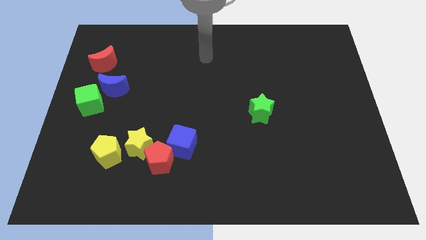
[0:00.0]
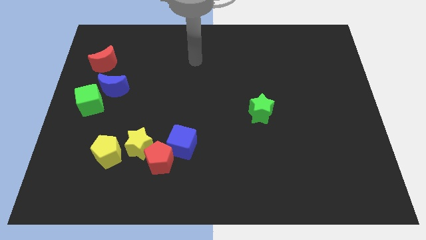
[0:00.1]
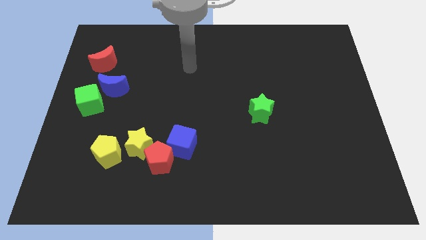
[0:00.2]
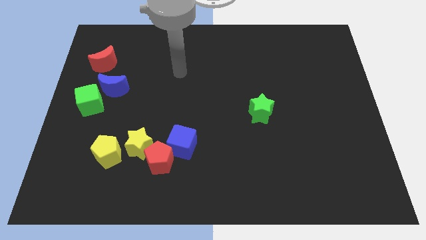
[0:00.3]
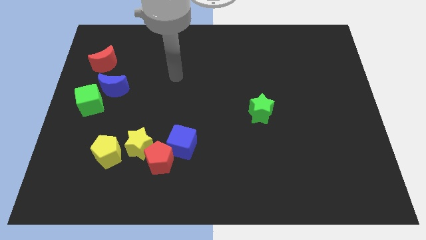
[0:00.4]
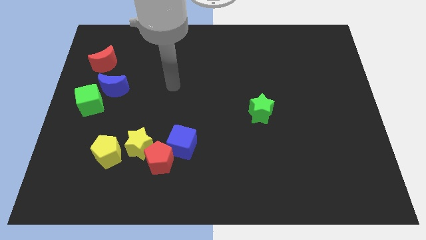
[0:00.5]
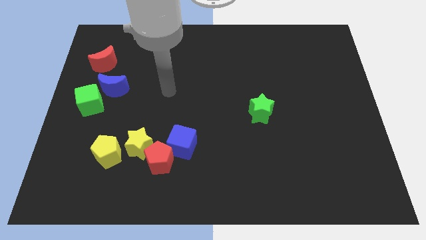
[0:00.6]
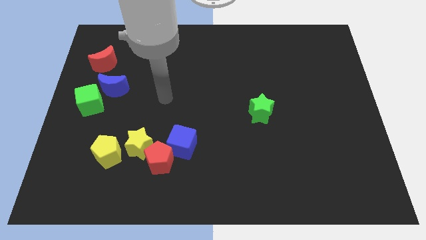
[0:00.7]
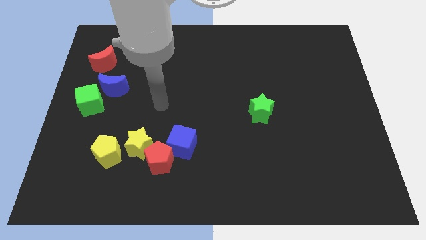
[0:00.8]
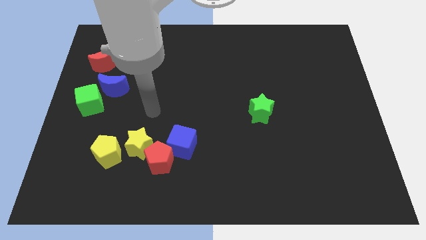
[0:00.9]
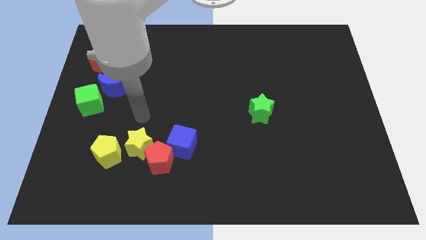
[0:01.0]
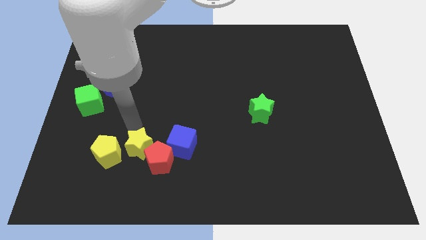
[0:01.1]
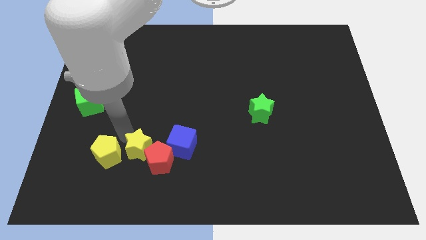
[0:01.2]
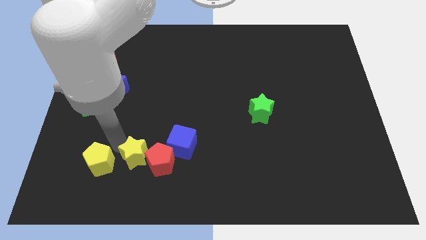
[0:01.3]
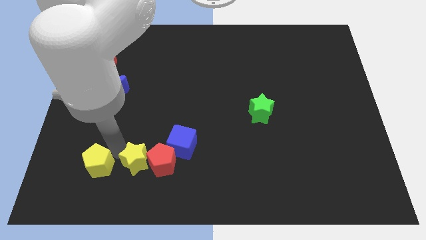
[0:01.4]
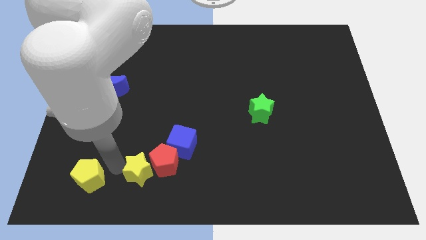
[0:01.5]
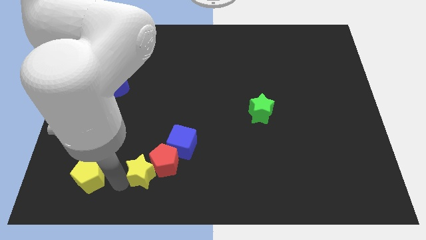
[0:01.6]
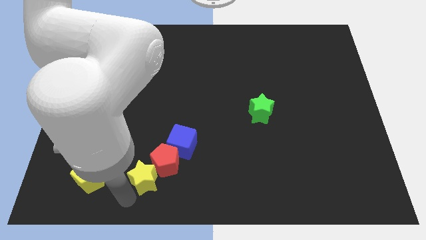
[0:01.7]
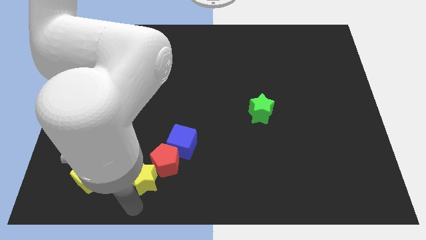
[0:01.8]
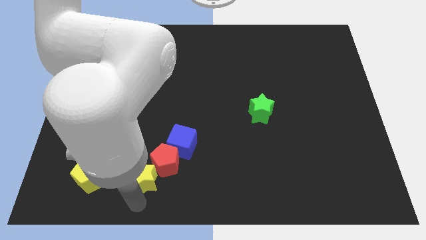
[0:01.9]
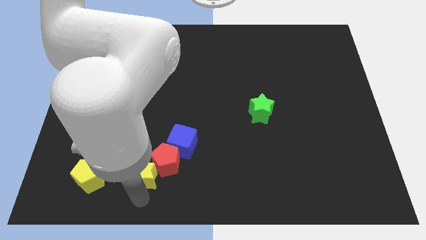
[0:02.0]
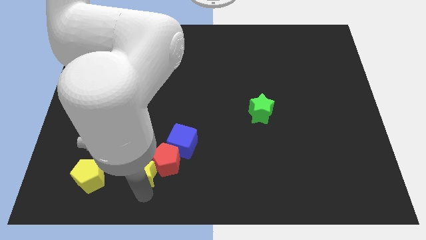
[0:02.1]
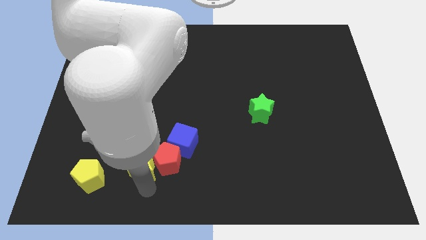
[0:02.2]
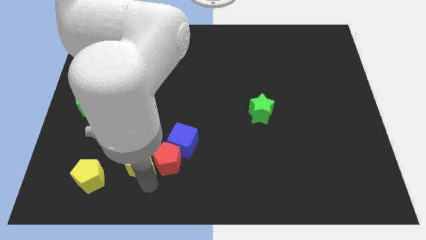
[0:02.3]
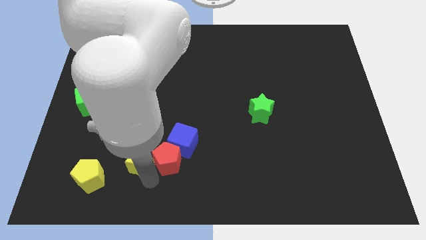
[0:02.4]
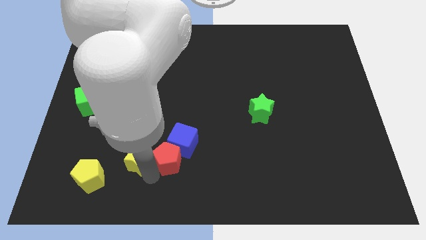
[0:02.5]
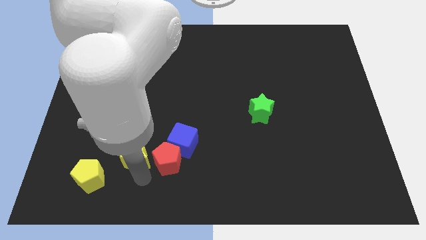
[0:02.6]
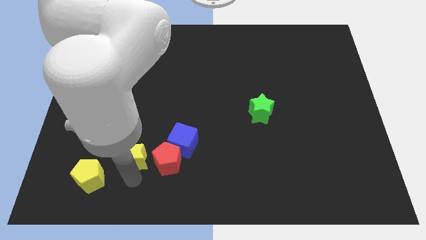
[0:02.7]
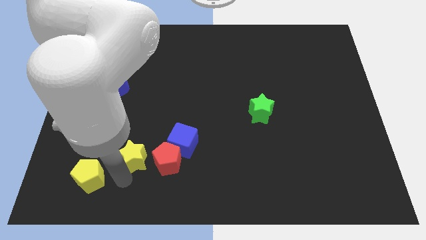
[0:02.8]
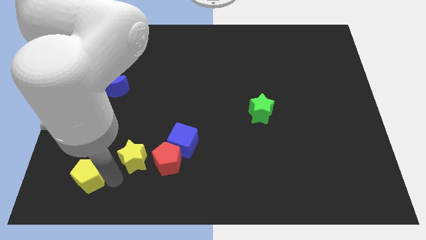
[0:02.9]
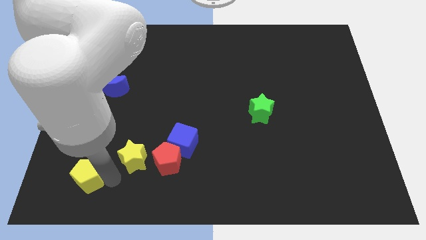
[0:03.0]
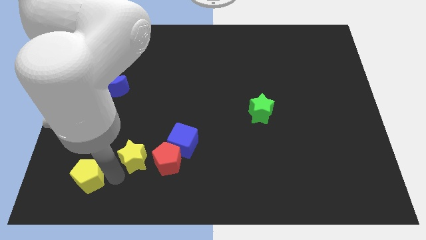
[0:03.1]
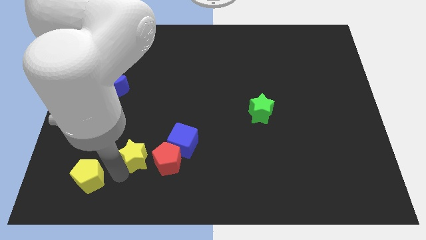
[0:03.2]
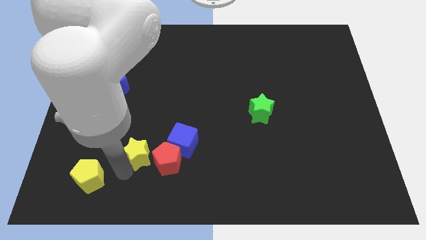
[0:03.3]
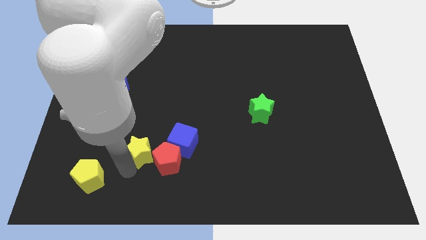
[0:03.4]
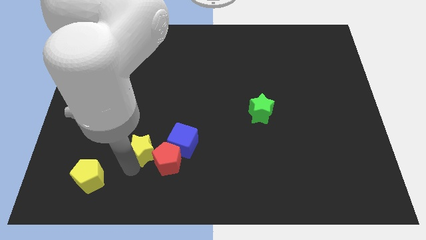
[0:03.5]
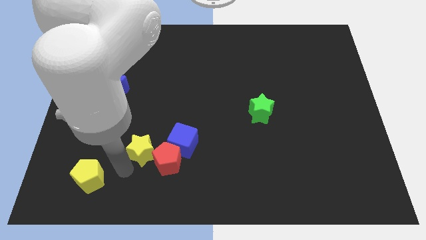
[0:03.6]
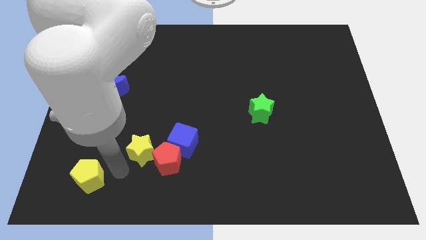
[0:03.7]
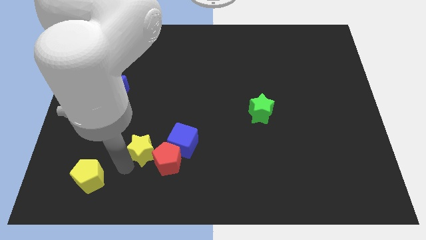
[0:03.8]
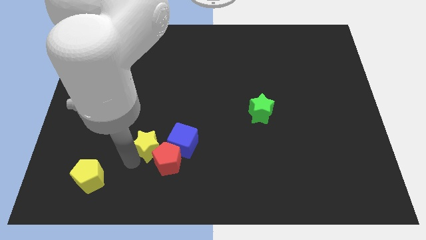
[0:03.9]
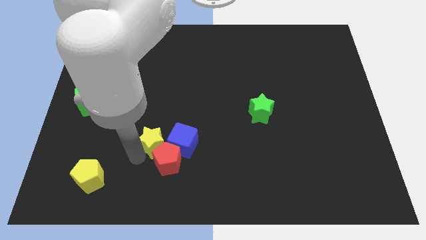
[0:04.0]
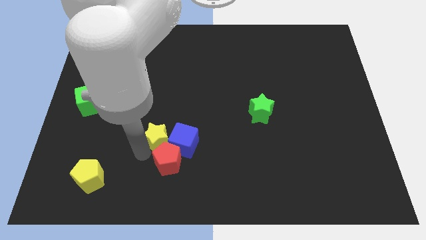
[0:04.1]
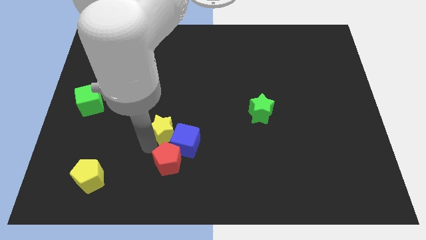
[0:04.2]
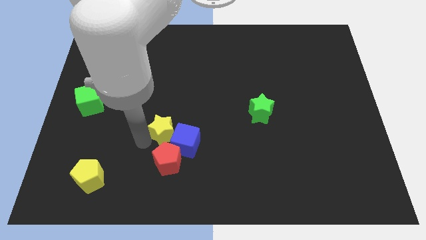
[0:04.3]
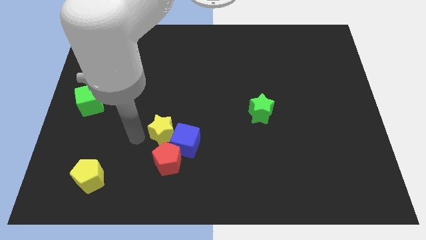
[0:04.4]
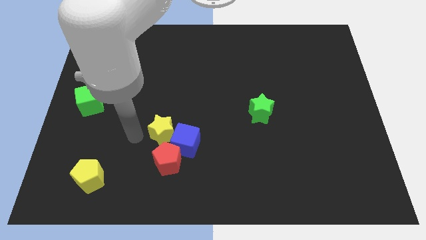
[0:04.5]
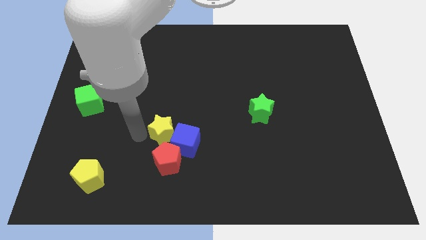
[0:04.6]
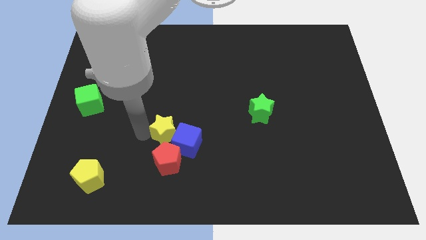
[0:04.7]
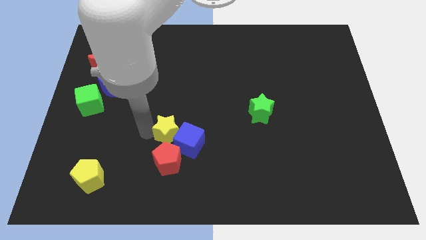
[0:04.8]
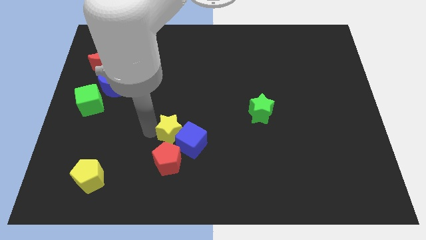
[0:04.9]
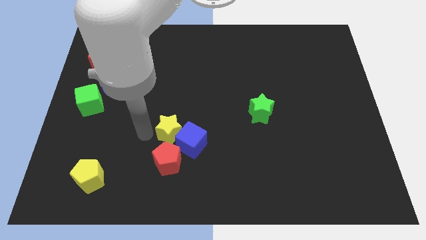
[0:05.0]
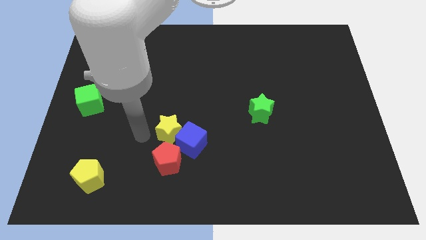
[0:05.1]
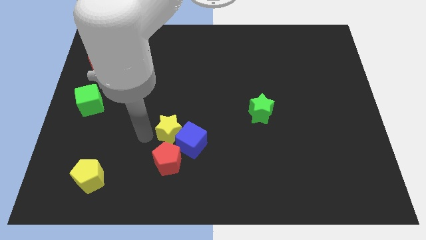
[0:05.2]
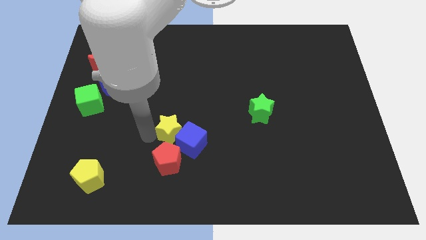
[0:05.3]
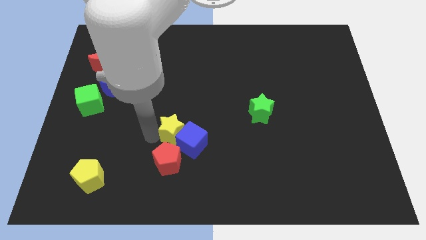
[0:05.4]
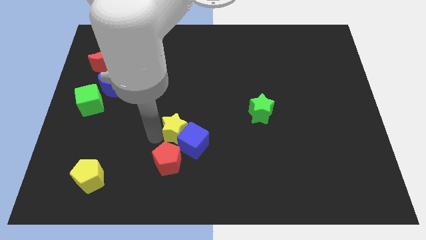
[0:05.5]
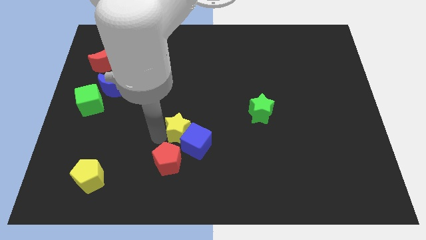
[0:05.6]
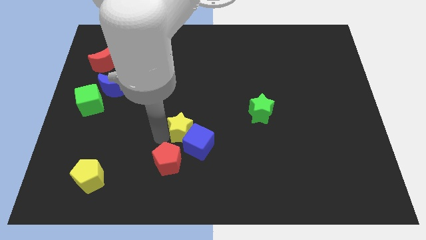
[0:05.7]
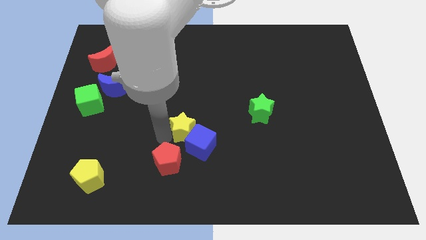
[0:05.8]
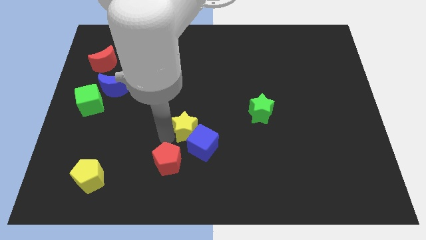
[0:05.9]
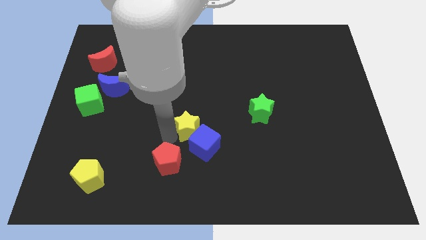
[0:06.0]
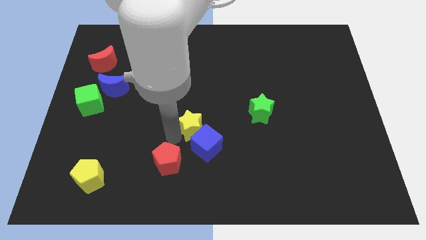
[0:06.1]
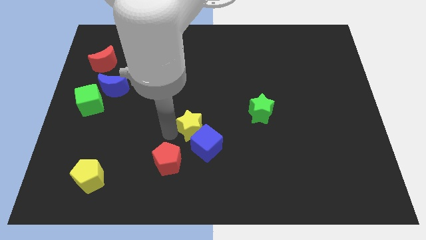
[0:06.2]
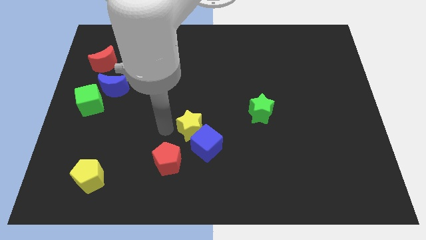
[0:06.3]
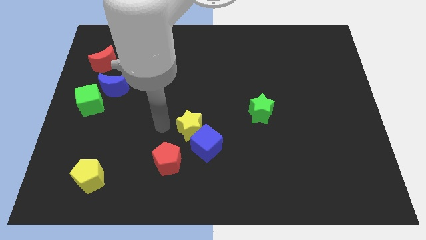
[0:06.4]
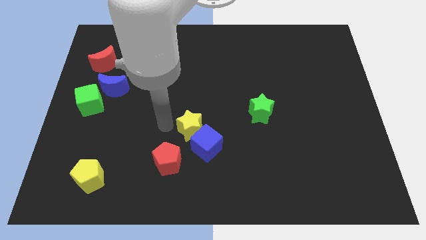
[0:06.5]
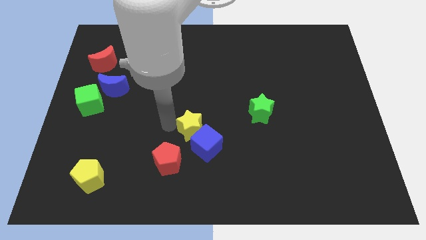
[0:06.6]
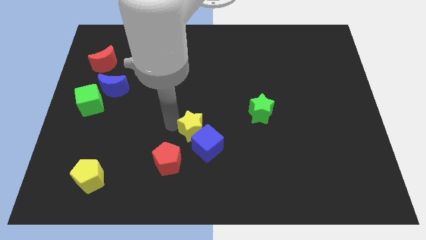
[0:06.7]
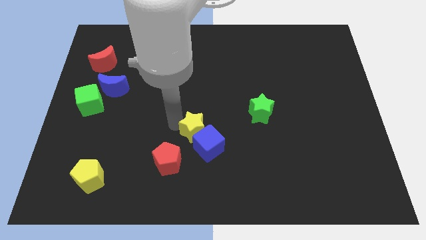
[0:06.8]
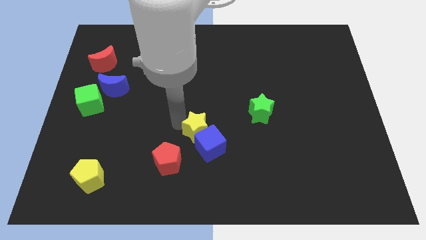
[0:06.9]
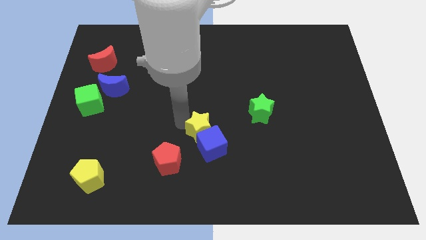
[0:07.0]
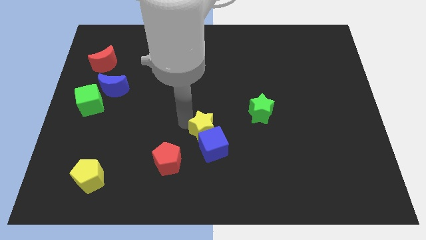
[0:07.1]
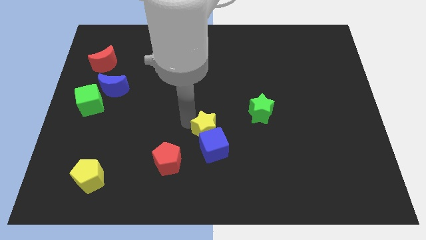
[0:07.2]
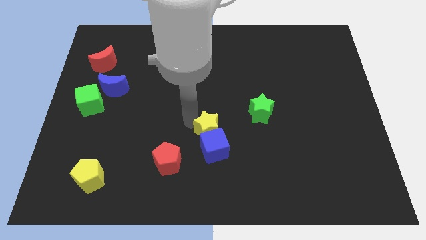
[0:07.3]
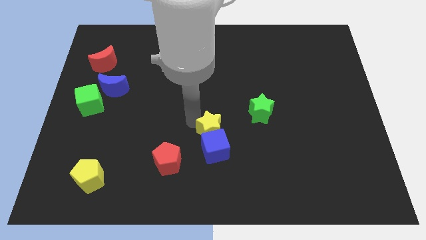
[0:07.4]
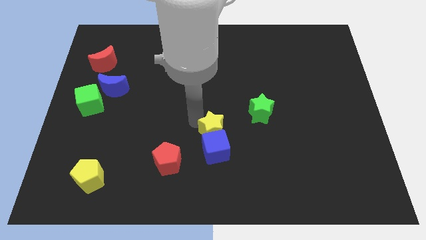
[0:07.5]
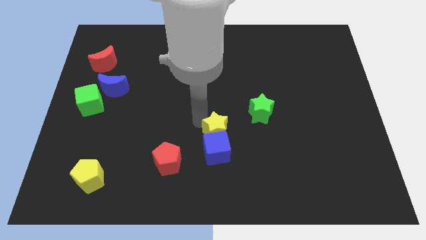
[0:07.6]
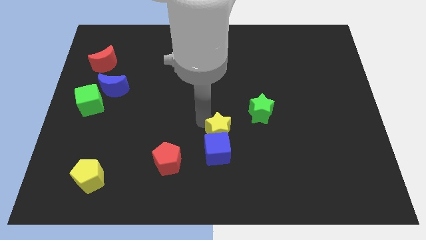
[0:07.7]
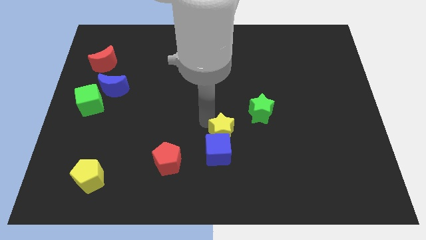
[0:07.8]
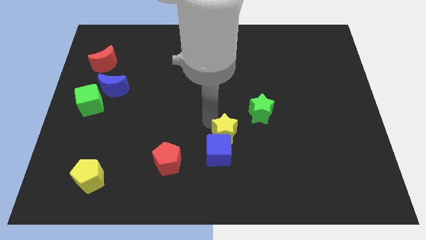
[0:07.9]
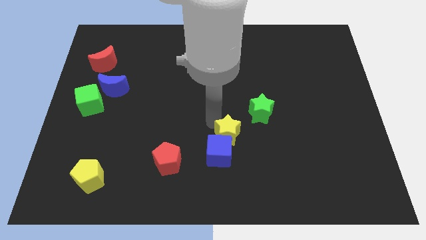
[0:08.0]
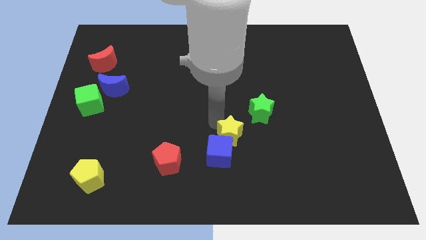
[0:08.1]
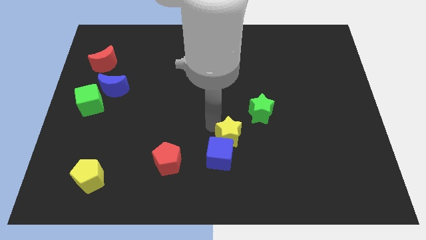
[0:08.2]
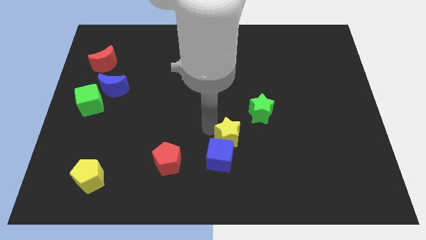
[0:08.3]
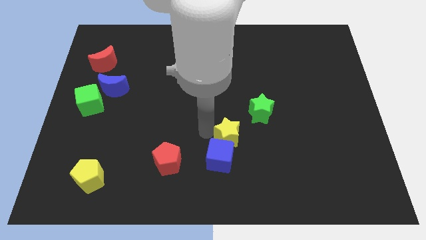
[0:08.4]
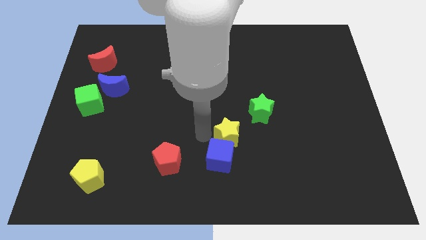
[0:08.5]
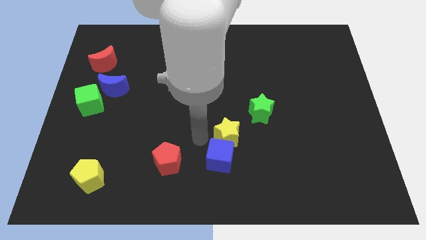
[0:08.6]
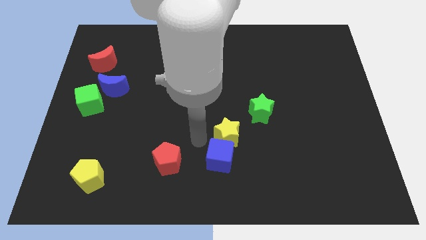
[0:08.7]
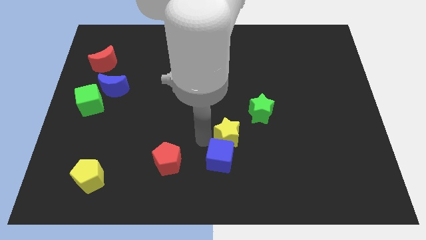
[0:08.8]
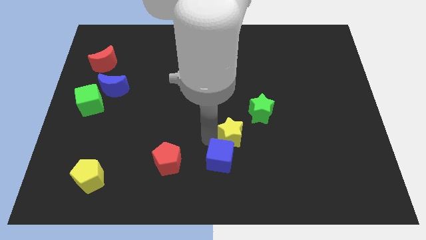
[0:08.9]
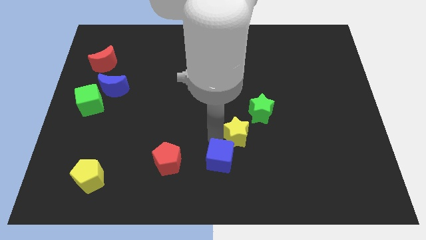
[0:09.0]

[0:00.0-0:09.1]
move the yellow star to the right
